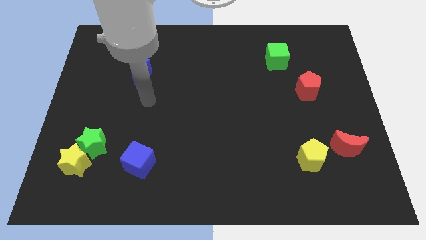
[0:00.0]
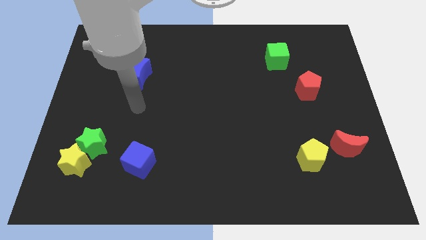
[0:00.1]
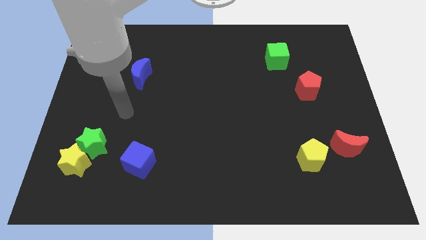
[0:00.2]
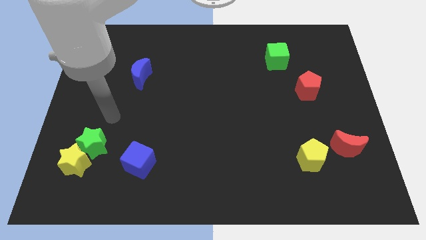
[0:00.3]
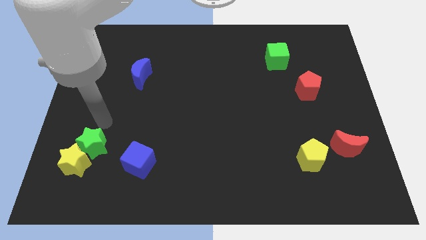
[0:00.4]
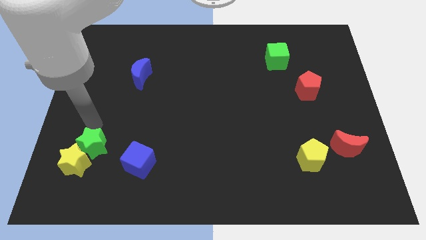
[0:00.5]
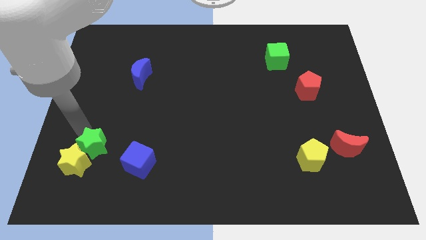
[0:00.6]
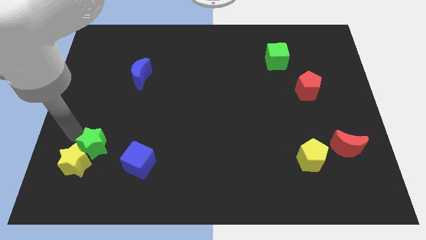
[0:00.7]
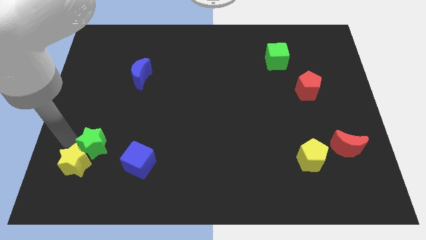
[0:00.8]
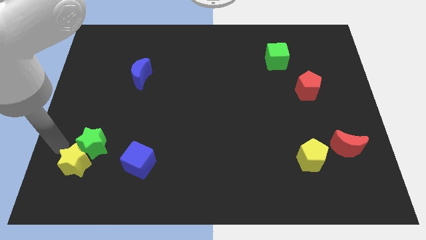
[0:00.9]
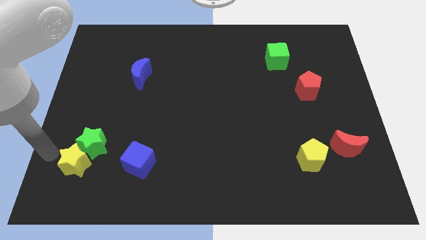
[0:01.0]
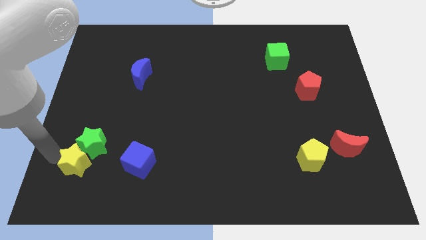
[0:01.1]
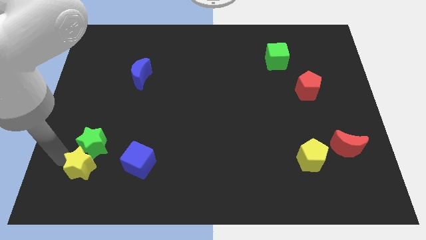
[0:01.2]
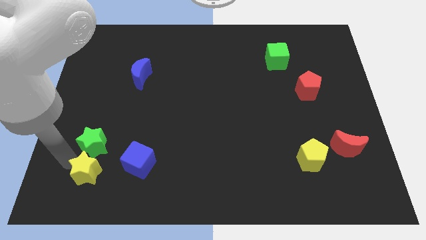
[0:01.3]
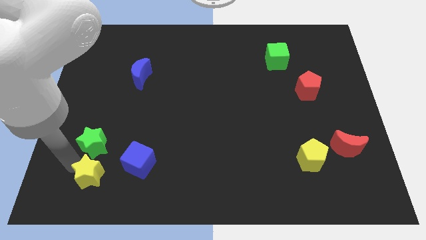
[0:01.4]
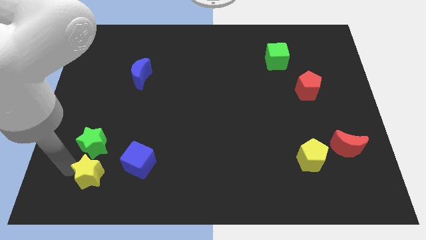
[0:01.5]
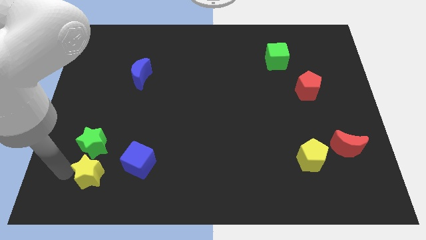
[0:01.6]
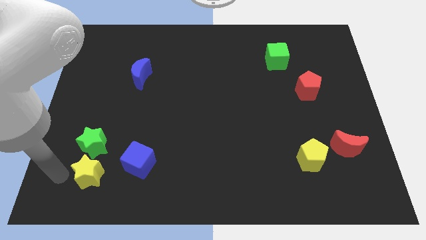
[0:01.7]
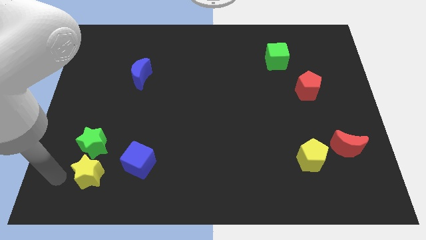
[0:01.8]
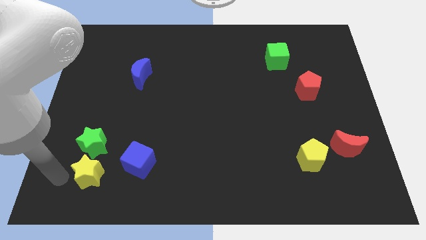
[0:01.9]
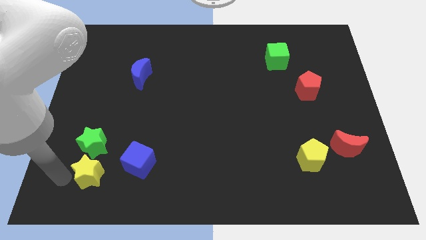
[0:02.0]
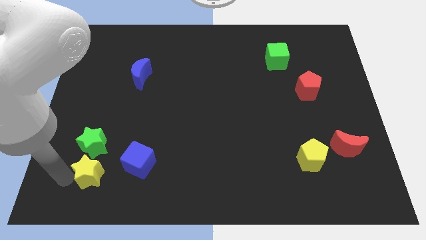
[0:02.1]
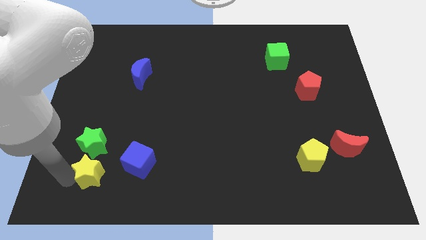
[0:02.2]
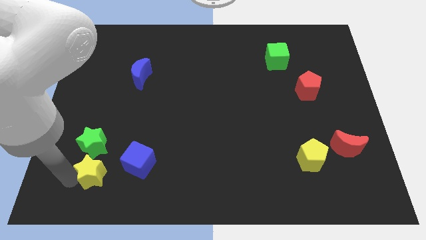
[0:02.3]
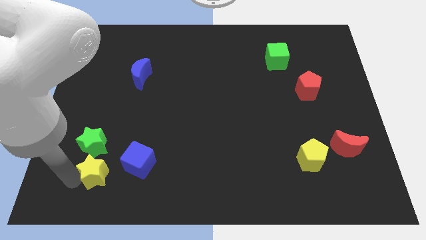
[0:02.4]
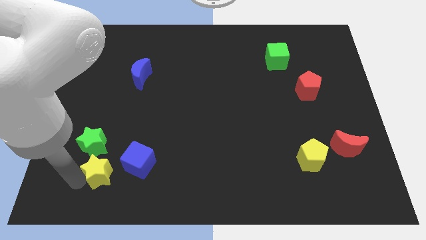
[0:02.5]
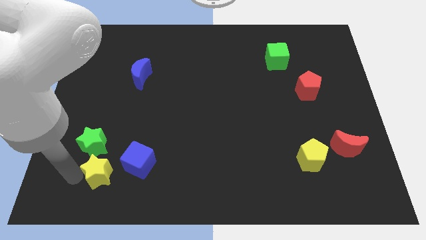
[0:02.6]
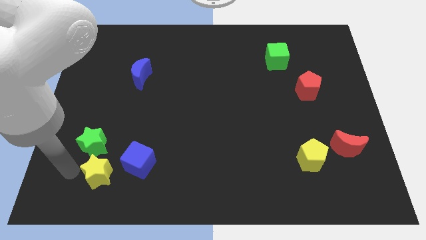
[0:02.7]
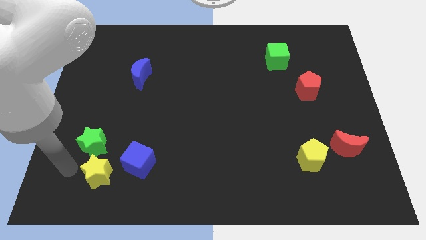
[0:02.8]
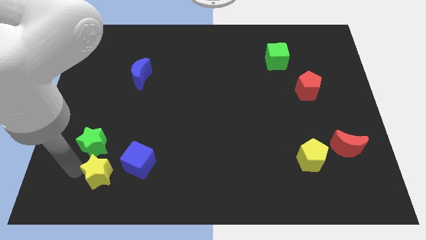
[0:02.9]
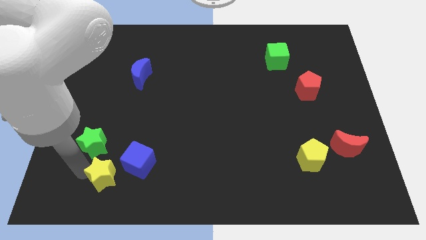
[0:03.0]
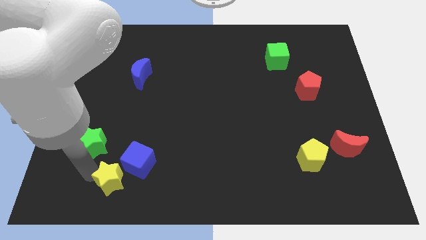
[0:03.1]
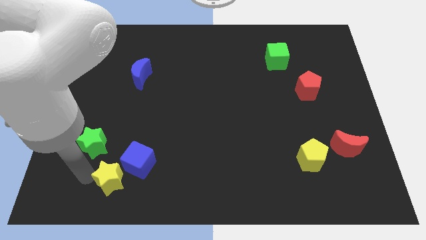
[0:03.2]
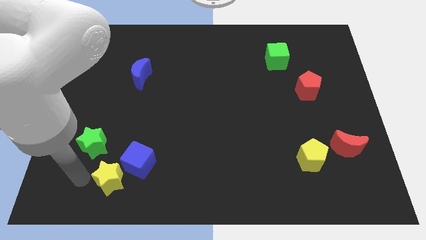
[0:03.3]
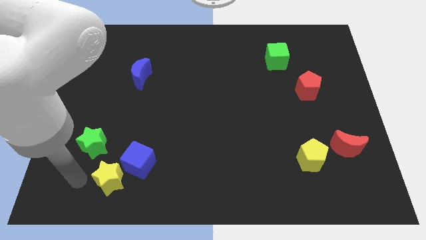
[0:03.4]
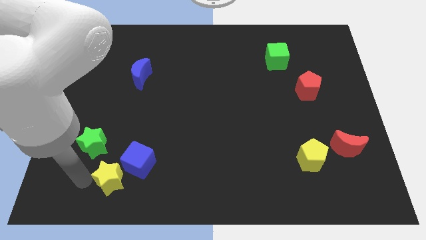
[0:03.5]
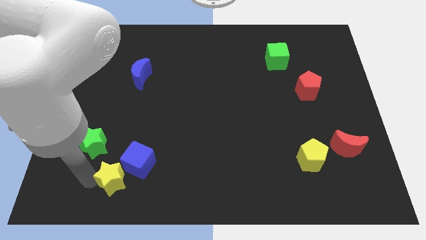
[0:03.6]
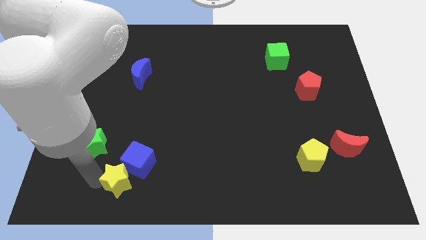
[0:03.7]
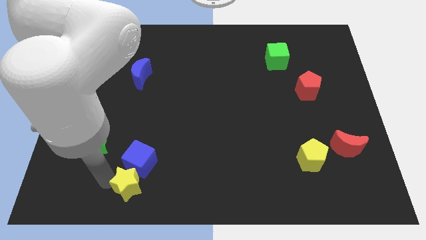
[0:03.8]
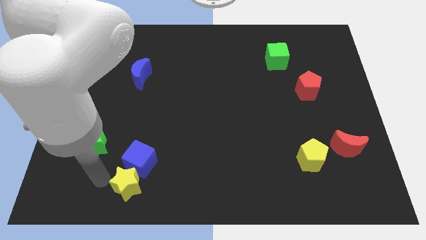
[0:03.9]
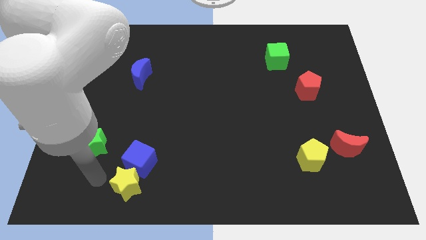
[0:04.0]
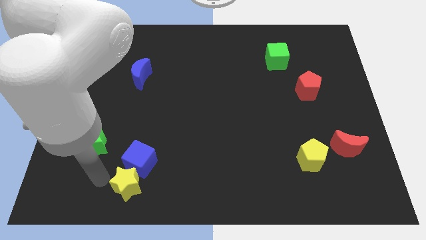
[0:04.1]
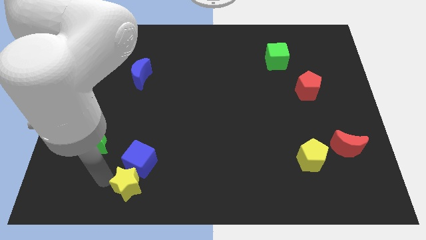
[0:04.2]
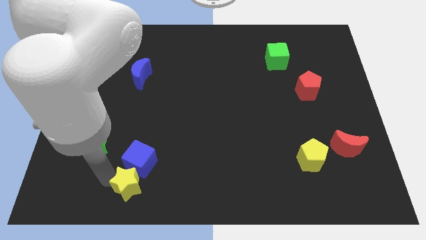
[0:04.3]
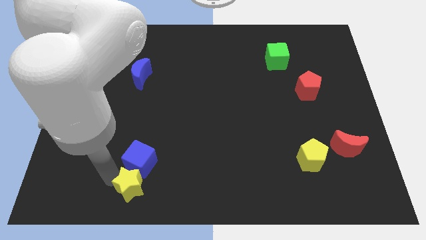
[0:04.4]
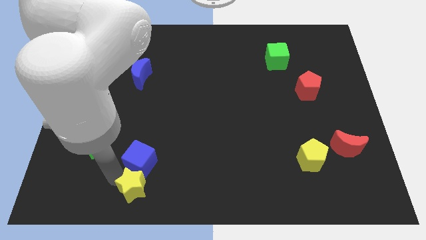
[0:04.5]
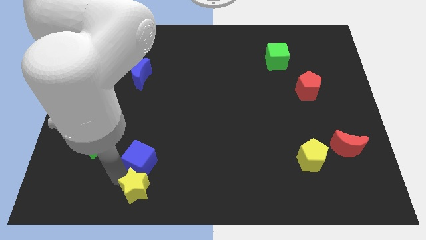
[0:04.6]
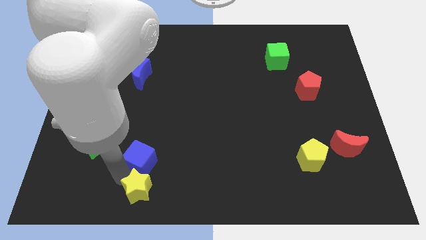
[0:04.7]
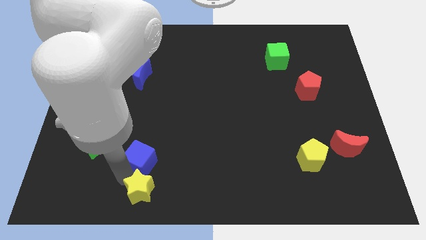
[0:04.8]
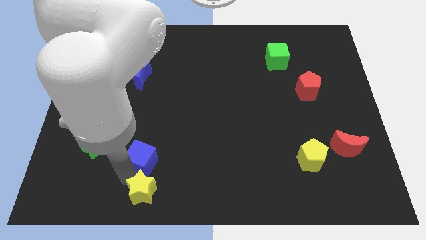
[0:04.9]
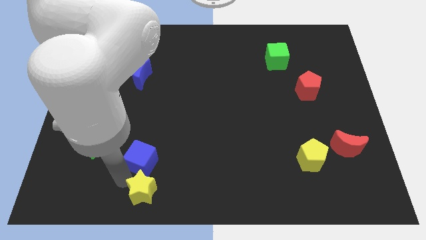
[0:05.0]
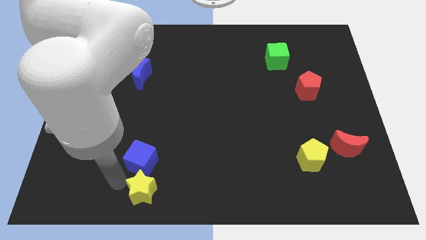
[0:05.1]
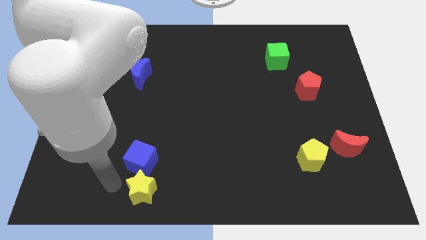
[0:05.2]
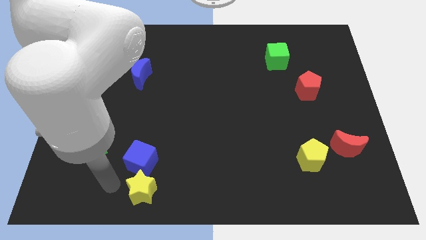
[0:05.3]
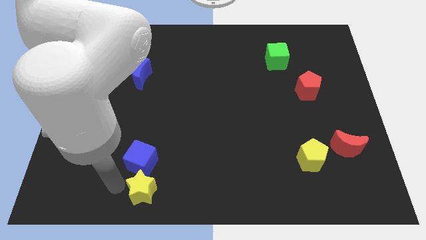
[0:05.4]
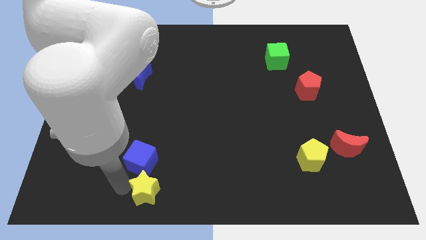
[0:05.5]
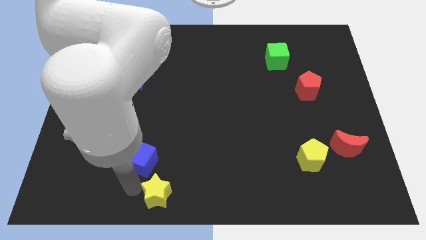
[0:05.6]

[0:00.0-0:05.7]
move the yellow star to the bottom

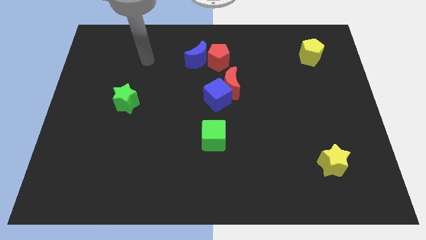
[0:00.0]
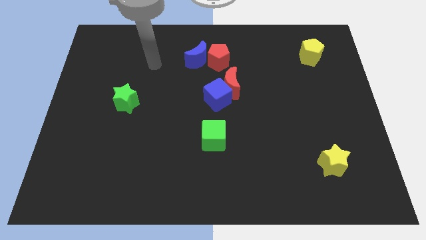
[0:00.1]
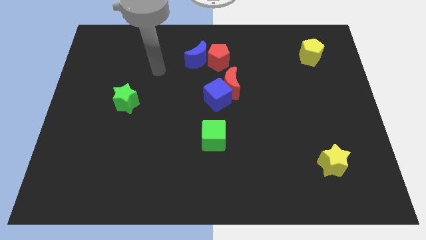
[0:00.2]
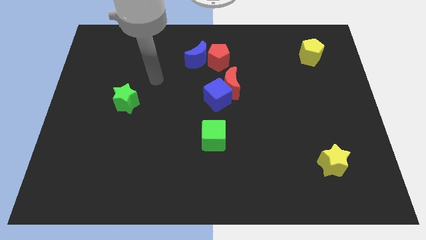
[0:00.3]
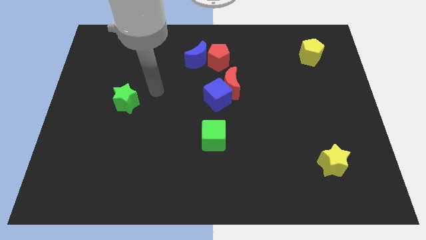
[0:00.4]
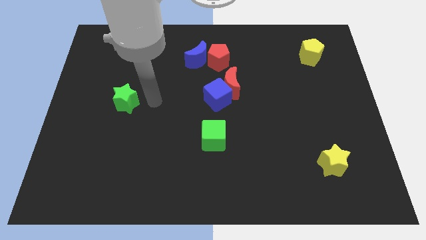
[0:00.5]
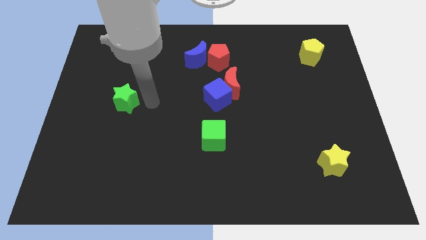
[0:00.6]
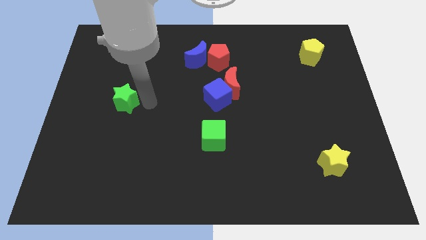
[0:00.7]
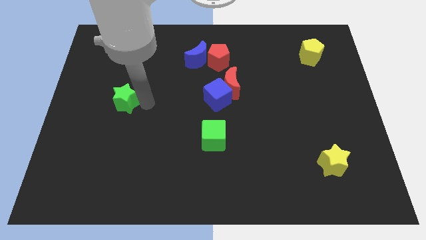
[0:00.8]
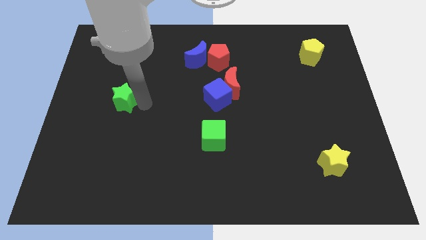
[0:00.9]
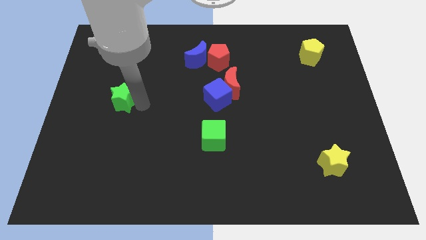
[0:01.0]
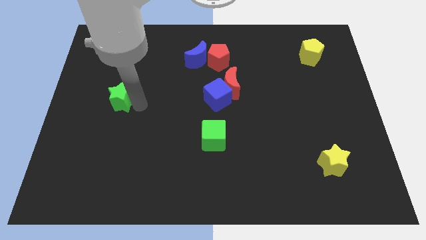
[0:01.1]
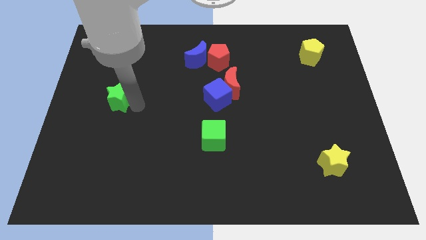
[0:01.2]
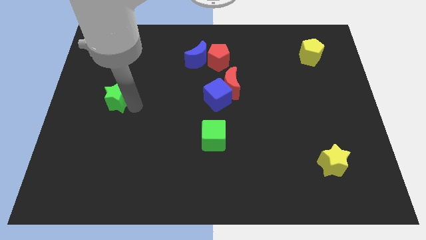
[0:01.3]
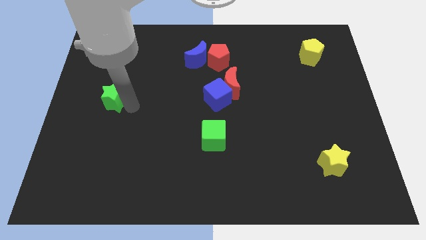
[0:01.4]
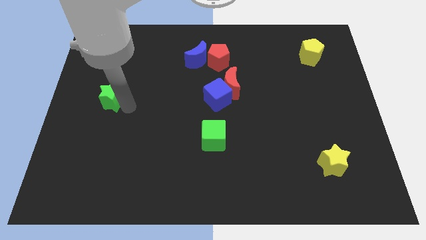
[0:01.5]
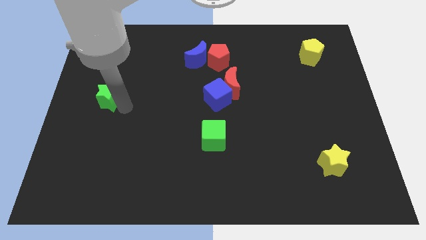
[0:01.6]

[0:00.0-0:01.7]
push the green star to the left side
